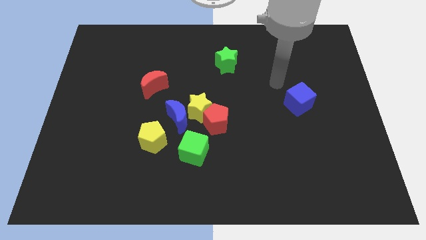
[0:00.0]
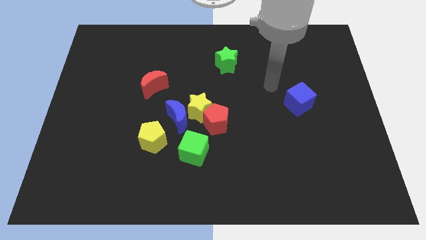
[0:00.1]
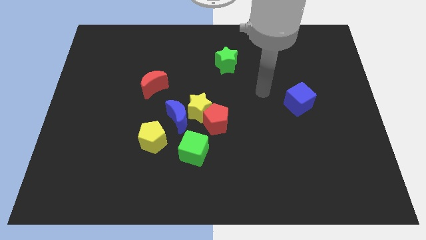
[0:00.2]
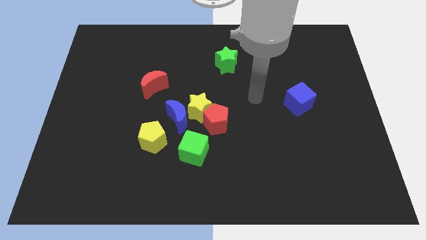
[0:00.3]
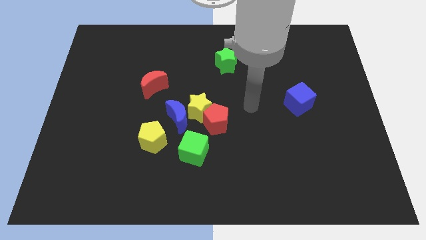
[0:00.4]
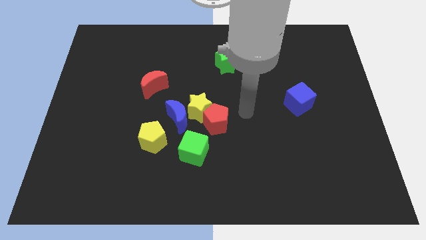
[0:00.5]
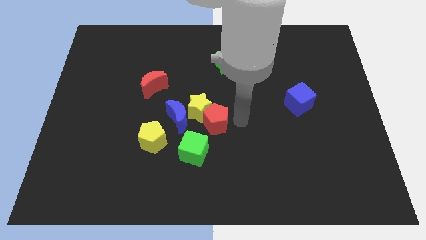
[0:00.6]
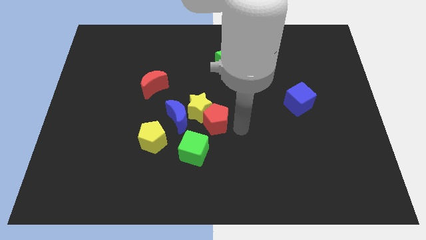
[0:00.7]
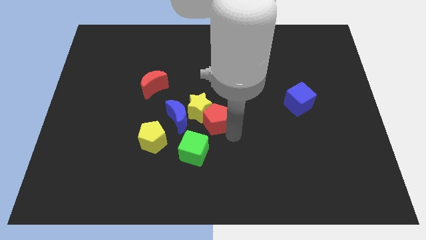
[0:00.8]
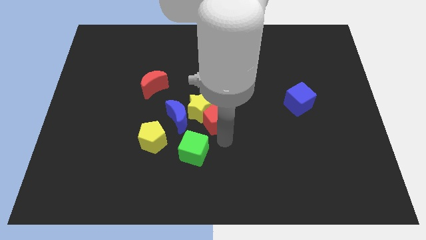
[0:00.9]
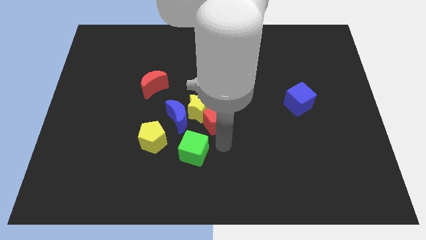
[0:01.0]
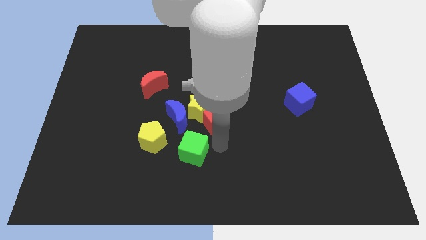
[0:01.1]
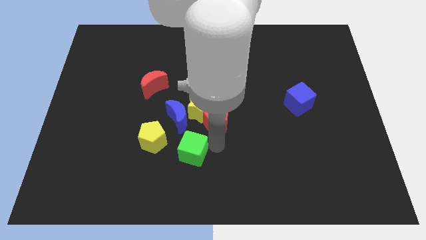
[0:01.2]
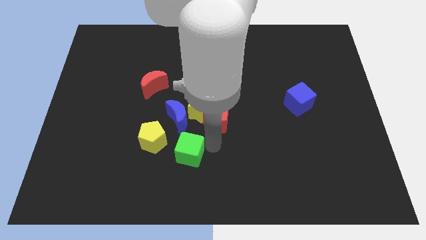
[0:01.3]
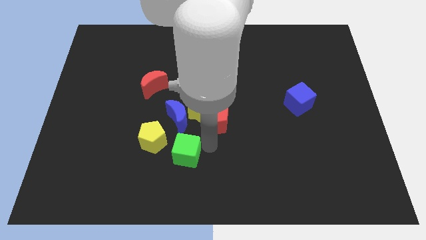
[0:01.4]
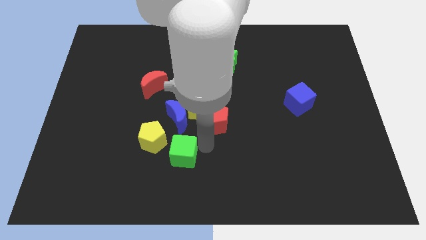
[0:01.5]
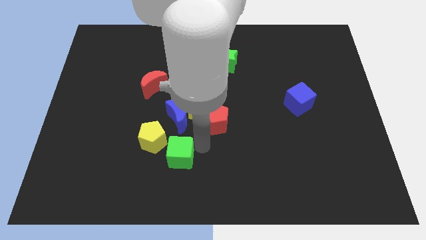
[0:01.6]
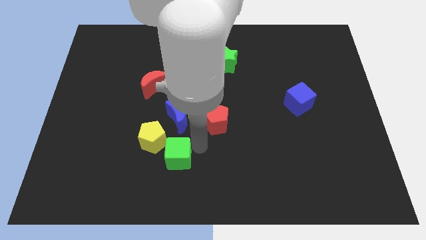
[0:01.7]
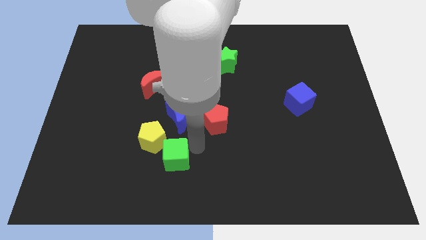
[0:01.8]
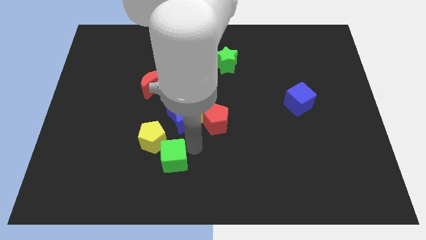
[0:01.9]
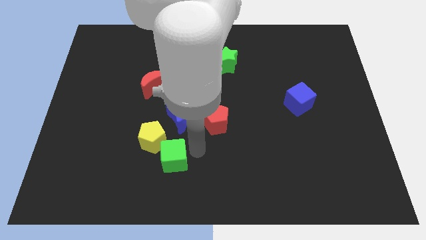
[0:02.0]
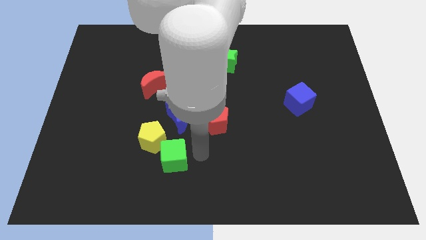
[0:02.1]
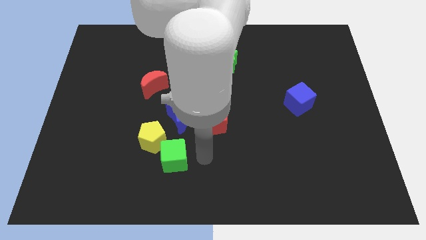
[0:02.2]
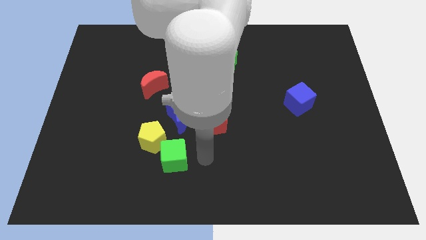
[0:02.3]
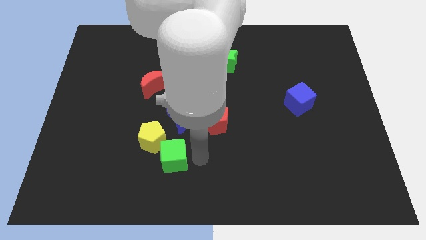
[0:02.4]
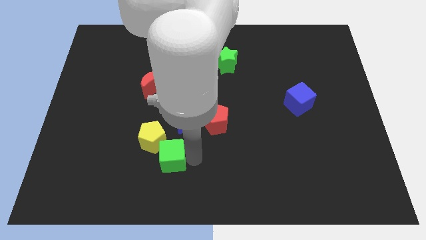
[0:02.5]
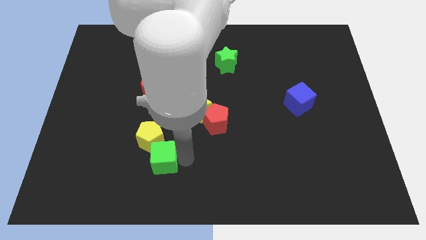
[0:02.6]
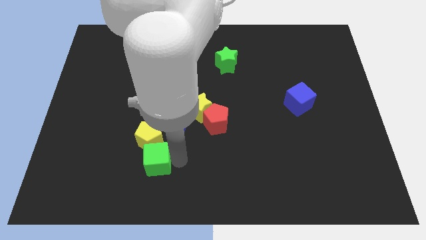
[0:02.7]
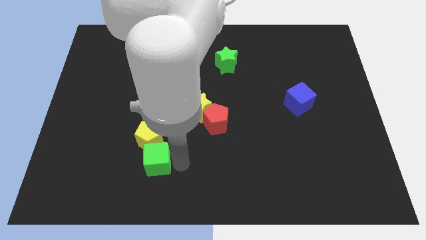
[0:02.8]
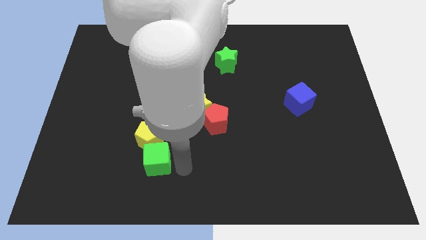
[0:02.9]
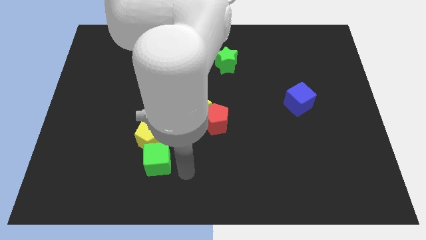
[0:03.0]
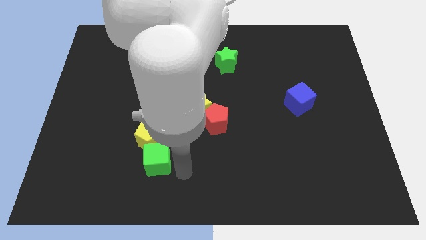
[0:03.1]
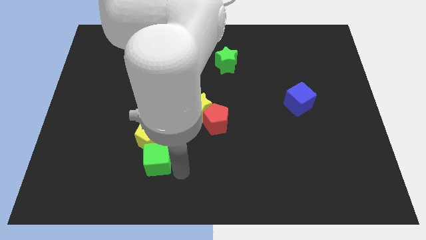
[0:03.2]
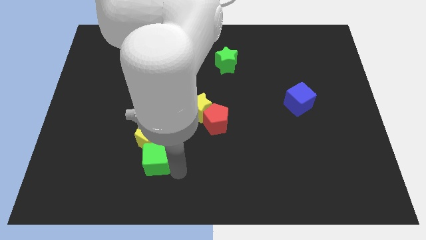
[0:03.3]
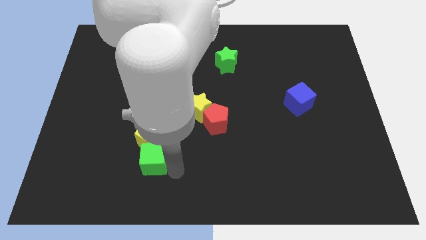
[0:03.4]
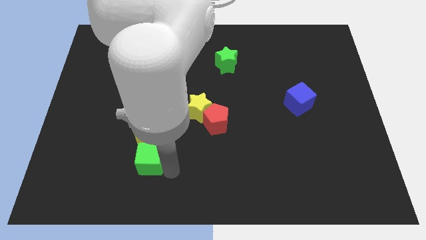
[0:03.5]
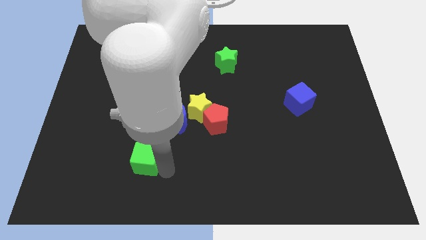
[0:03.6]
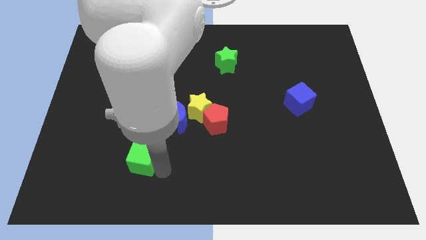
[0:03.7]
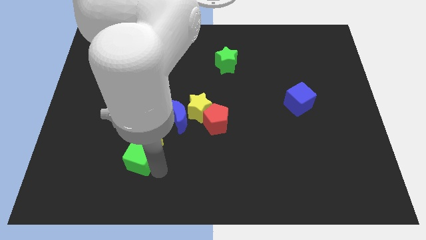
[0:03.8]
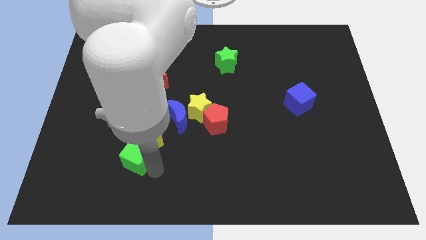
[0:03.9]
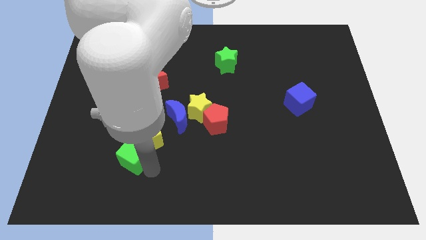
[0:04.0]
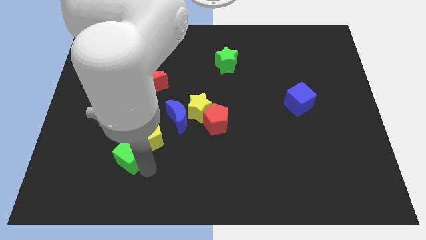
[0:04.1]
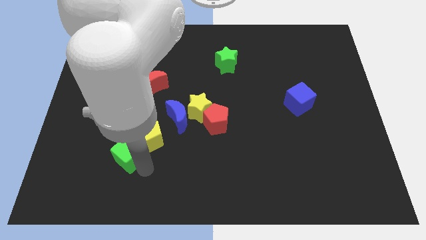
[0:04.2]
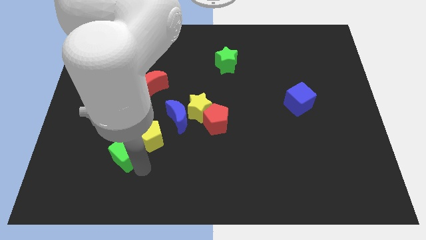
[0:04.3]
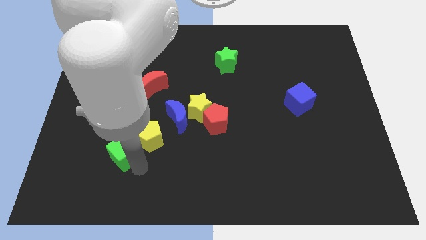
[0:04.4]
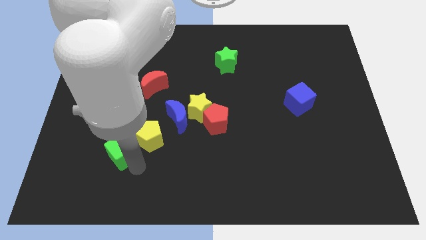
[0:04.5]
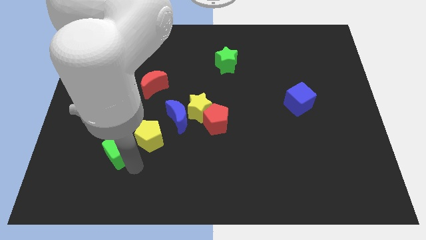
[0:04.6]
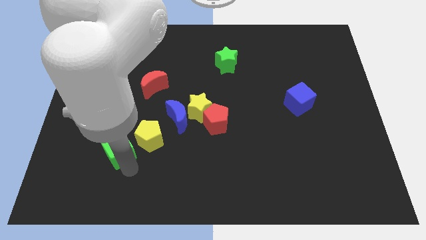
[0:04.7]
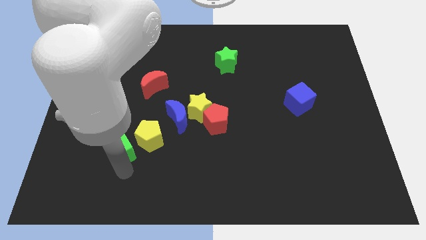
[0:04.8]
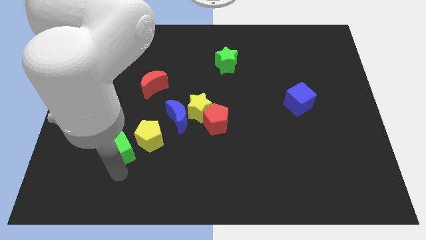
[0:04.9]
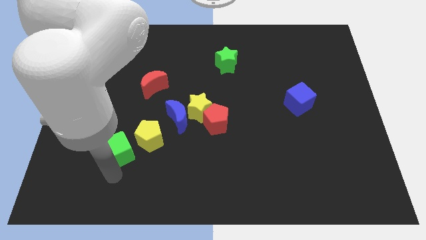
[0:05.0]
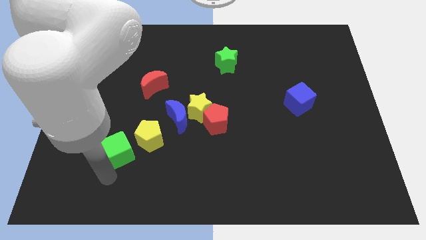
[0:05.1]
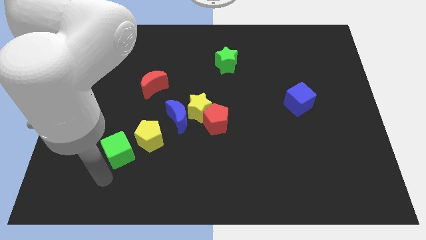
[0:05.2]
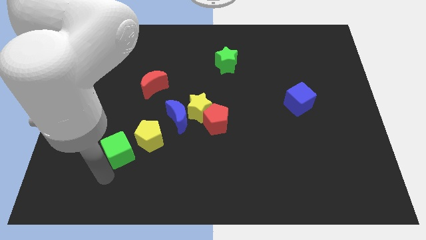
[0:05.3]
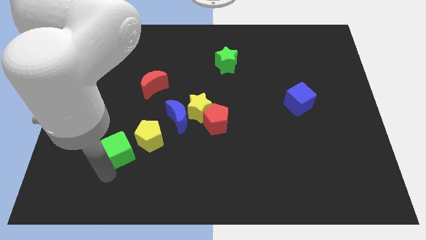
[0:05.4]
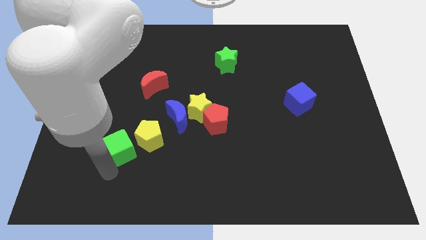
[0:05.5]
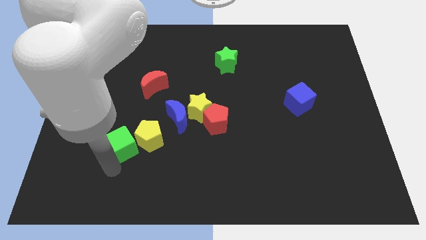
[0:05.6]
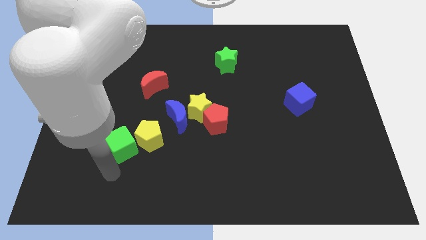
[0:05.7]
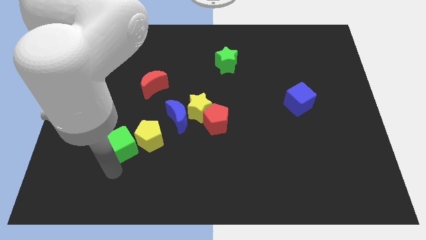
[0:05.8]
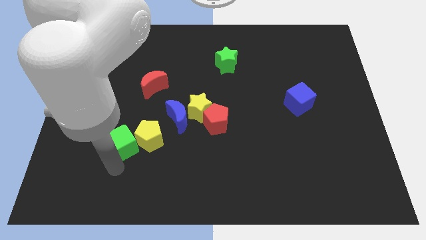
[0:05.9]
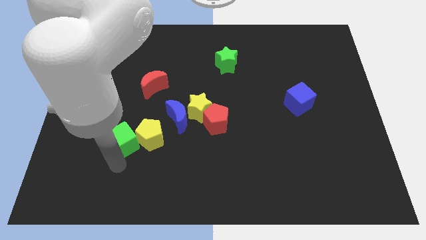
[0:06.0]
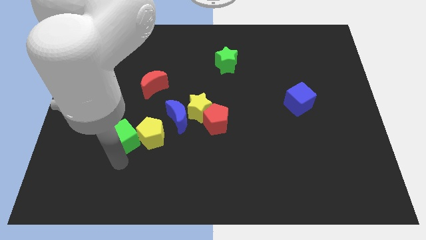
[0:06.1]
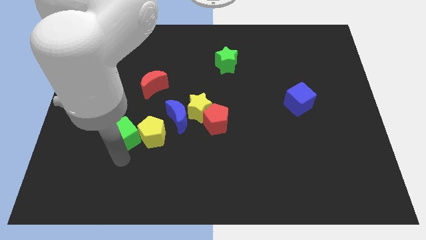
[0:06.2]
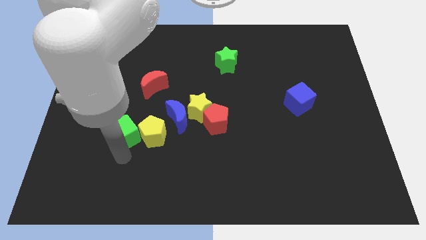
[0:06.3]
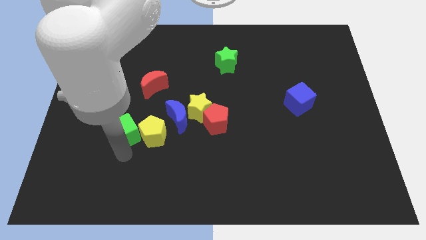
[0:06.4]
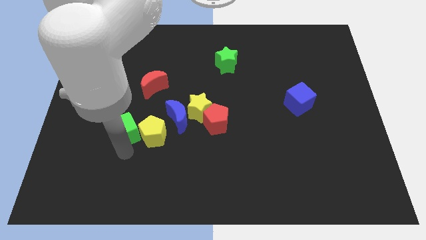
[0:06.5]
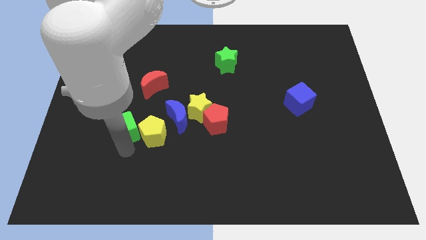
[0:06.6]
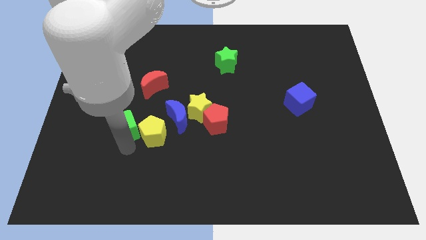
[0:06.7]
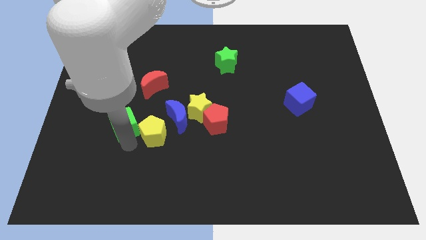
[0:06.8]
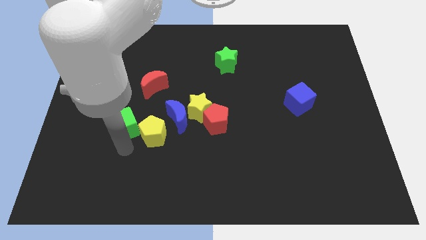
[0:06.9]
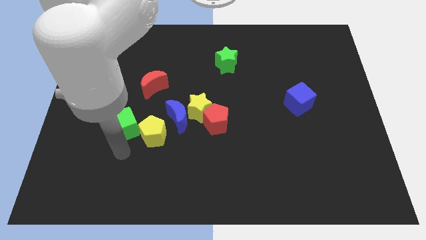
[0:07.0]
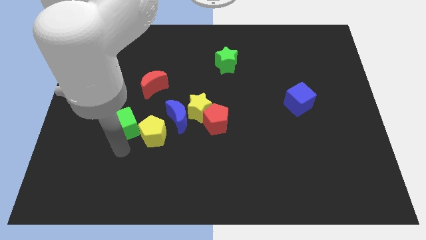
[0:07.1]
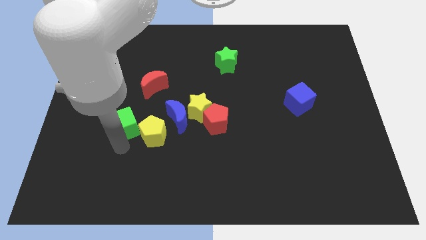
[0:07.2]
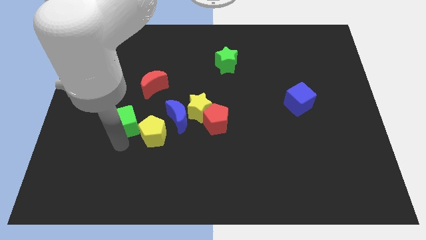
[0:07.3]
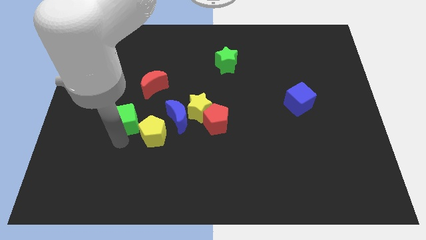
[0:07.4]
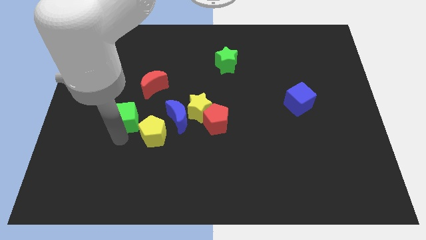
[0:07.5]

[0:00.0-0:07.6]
push the green cube diagonally down and to the left of the red moon
